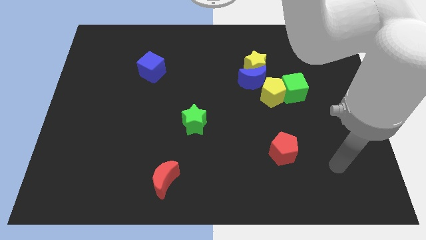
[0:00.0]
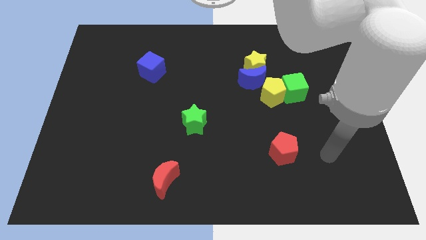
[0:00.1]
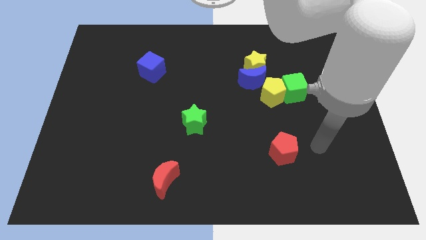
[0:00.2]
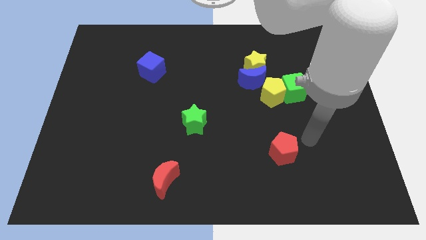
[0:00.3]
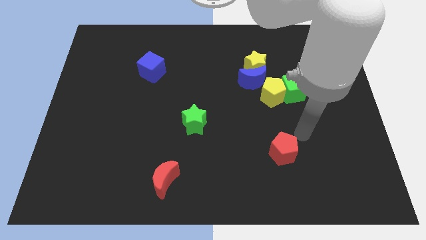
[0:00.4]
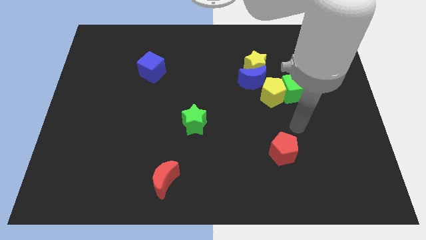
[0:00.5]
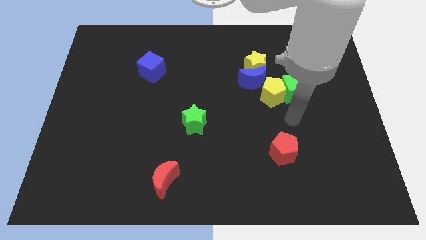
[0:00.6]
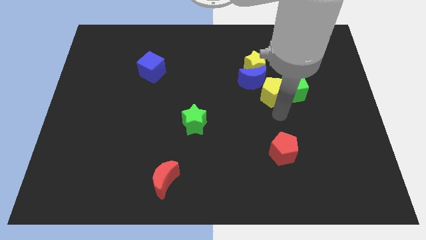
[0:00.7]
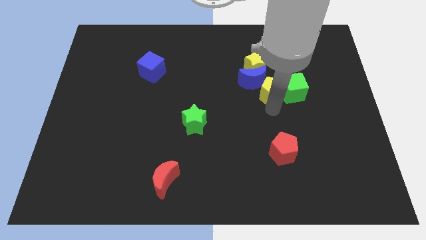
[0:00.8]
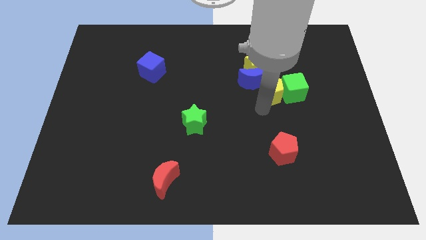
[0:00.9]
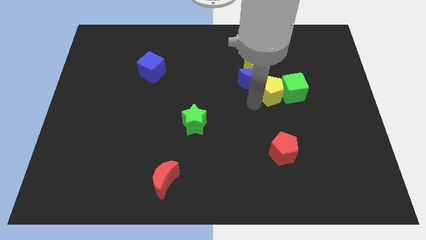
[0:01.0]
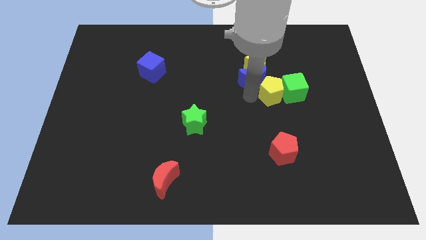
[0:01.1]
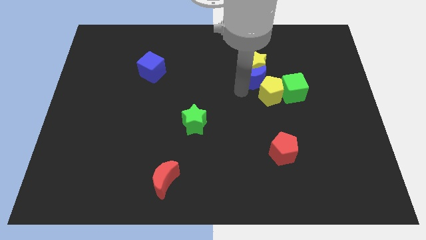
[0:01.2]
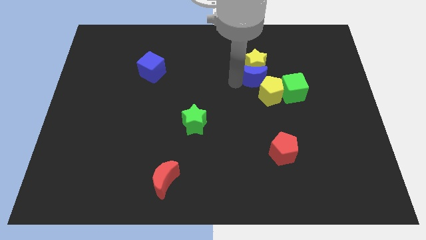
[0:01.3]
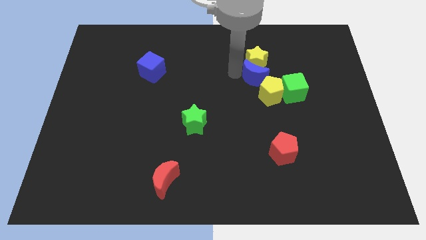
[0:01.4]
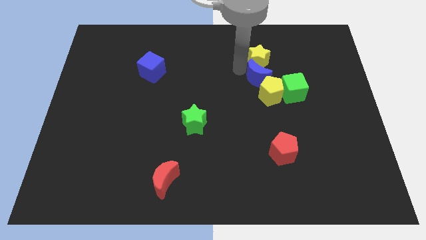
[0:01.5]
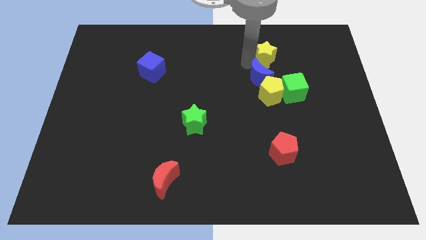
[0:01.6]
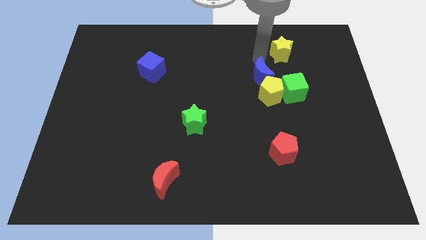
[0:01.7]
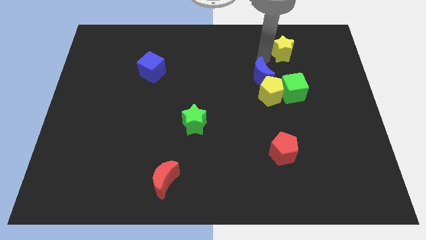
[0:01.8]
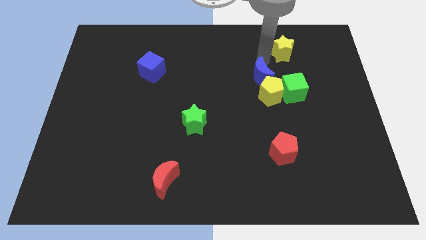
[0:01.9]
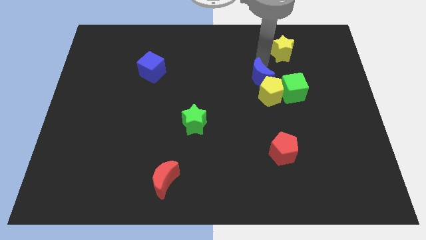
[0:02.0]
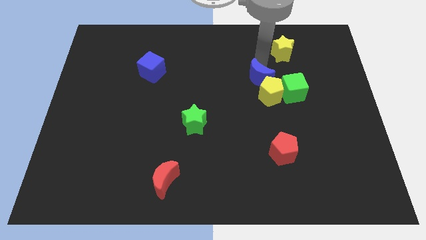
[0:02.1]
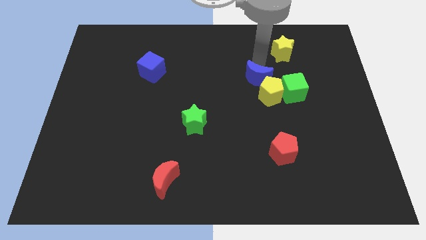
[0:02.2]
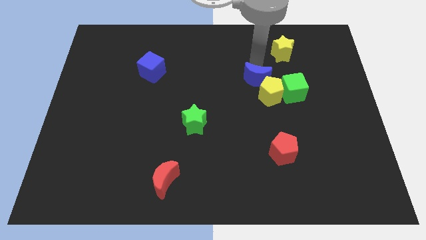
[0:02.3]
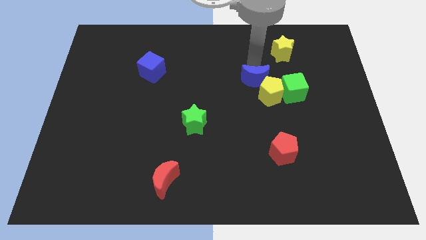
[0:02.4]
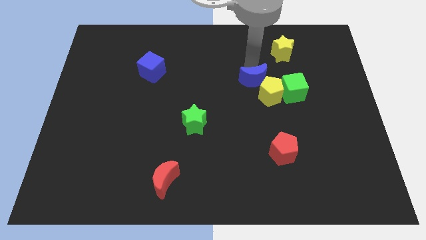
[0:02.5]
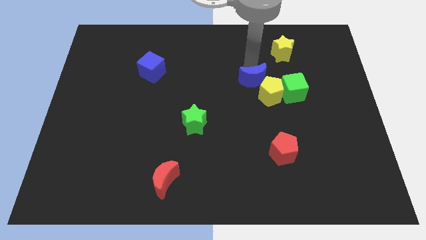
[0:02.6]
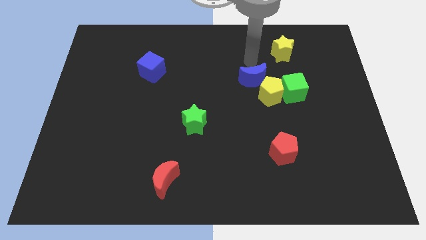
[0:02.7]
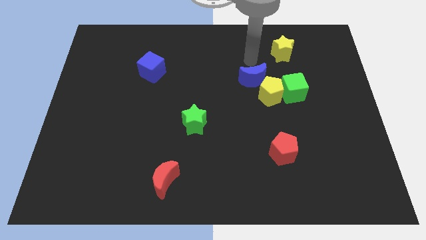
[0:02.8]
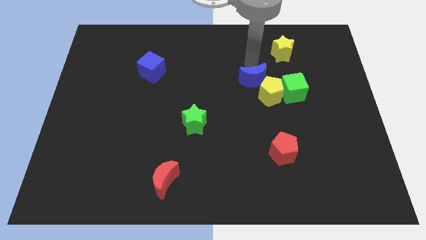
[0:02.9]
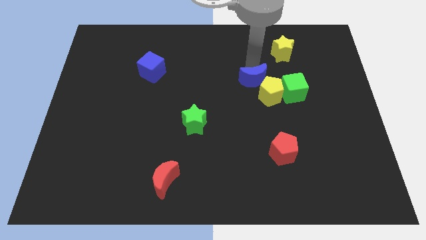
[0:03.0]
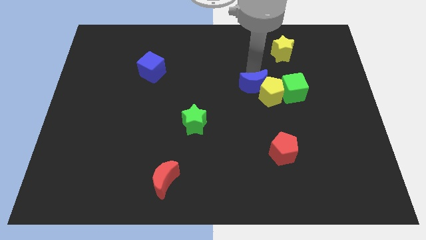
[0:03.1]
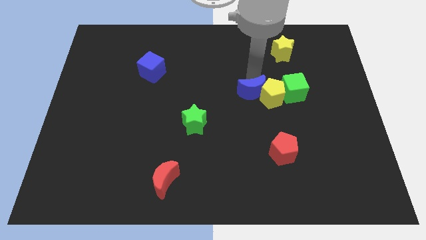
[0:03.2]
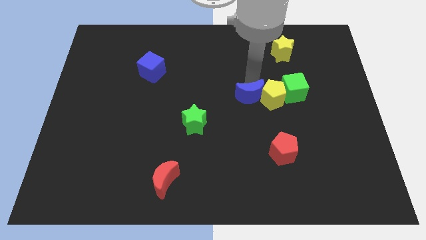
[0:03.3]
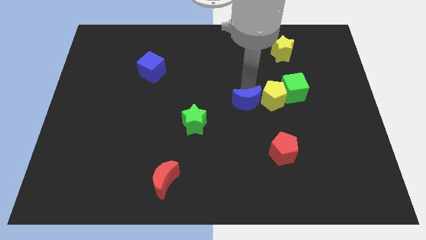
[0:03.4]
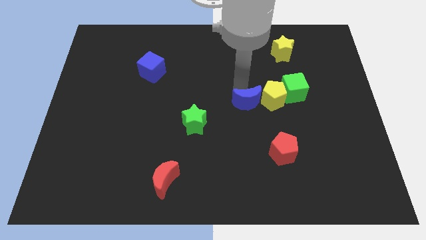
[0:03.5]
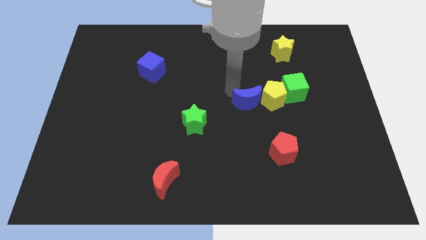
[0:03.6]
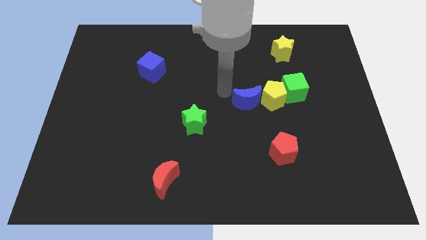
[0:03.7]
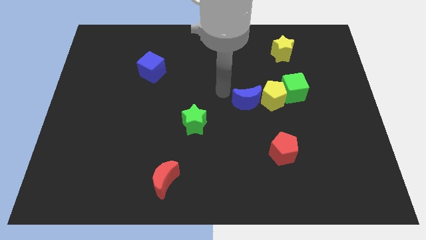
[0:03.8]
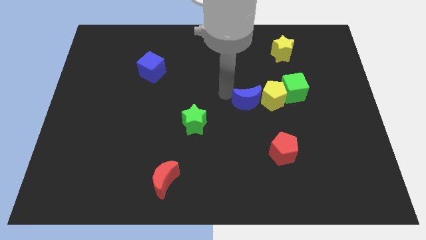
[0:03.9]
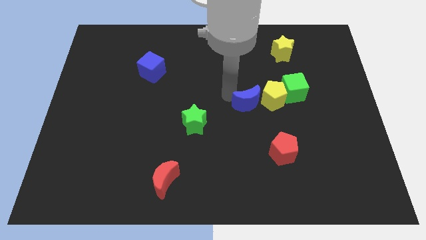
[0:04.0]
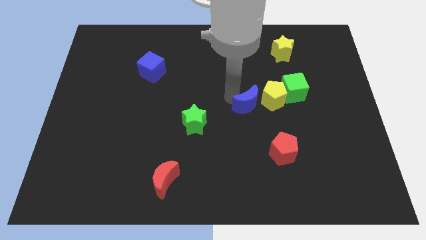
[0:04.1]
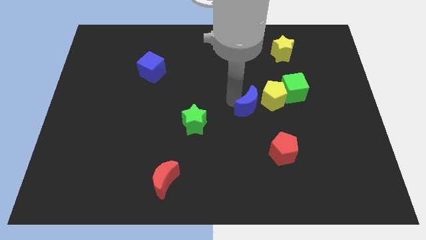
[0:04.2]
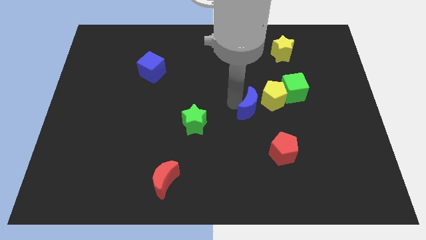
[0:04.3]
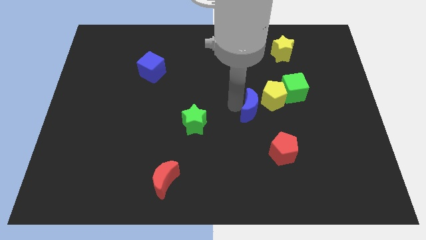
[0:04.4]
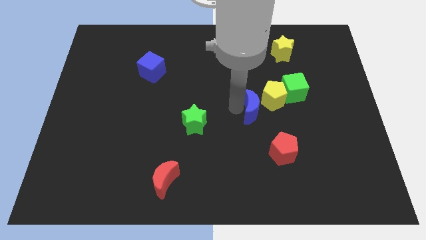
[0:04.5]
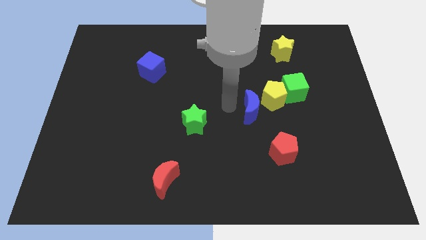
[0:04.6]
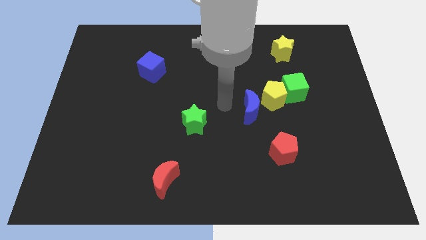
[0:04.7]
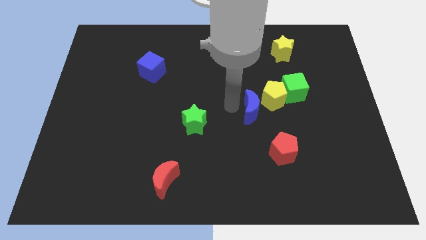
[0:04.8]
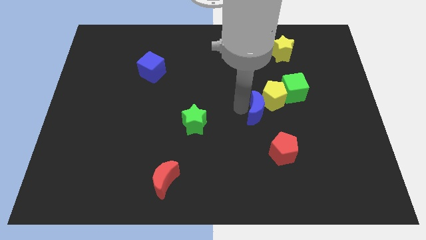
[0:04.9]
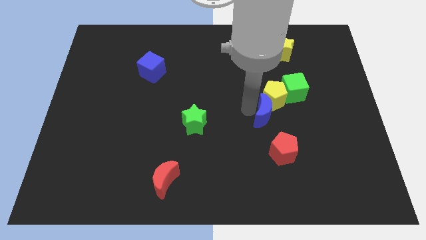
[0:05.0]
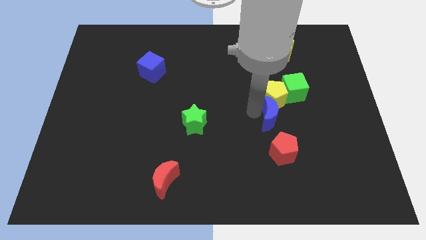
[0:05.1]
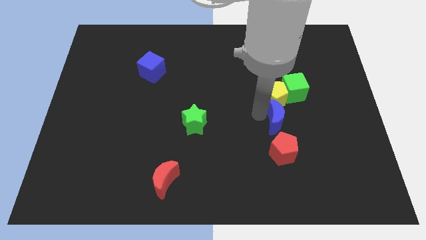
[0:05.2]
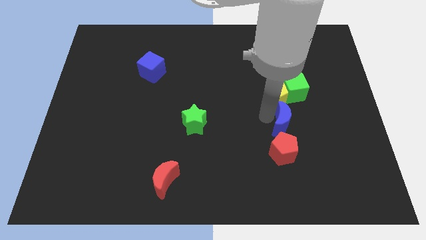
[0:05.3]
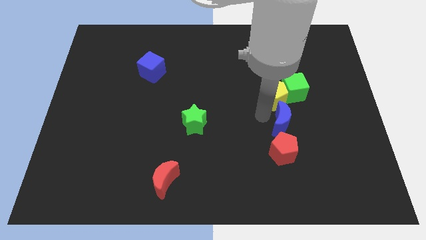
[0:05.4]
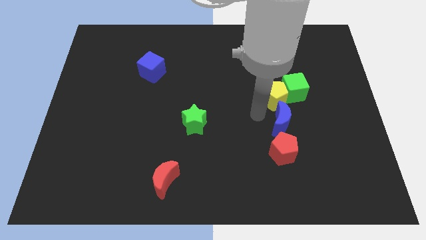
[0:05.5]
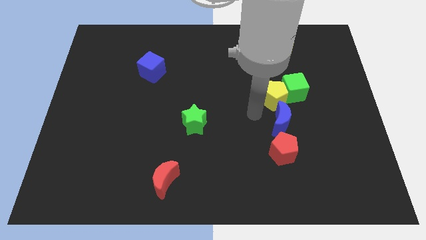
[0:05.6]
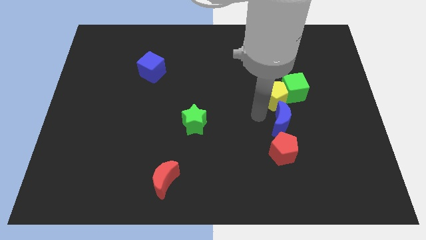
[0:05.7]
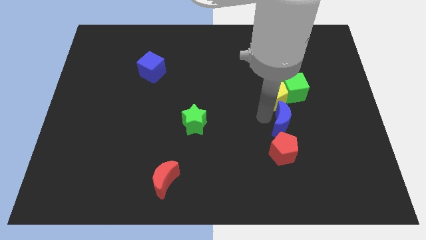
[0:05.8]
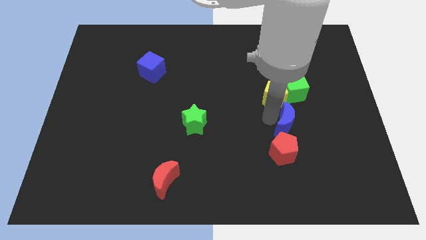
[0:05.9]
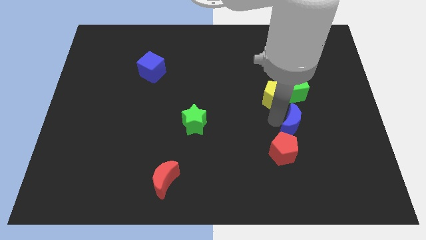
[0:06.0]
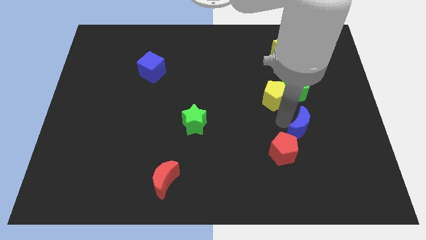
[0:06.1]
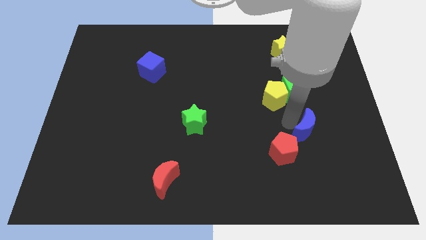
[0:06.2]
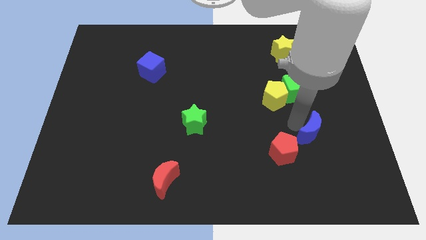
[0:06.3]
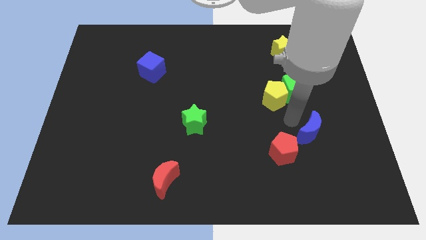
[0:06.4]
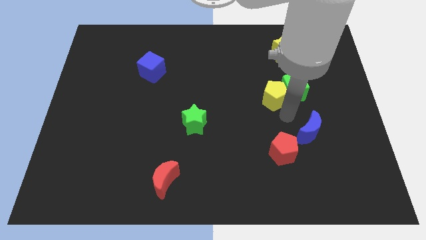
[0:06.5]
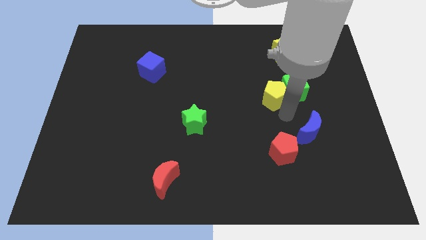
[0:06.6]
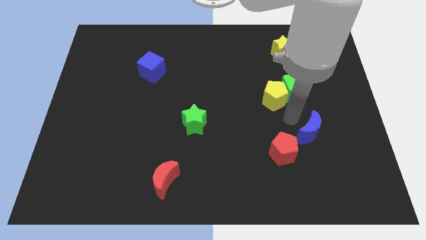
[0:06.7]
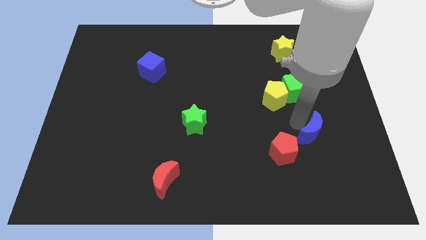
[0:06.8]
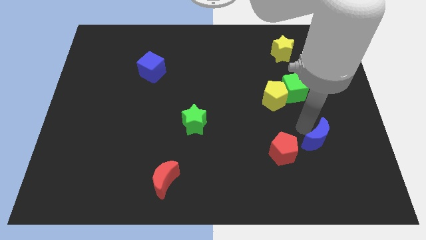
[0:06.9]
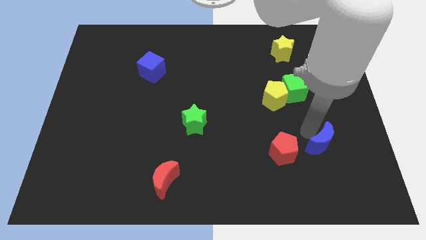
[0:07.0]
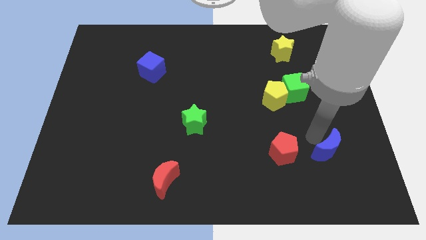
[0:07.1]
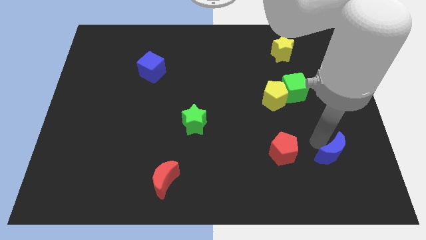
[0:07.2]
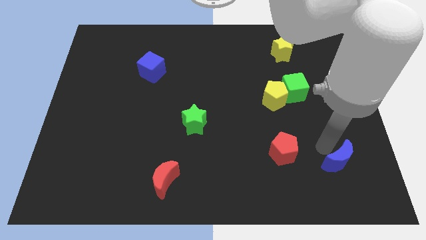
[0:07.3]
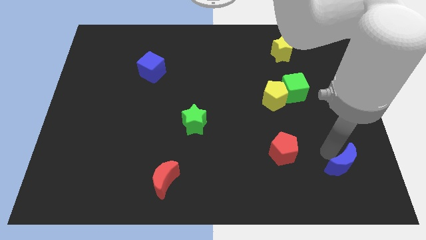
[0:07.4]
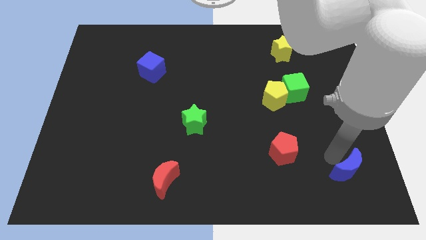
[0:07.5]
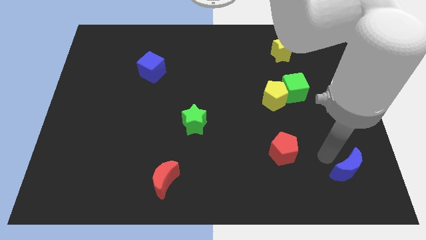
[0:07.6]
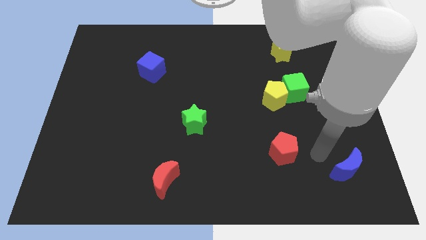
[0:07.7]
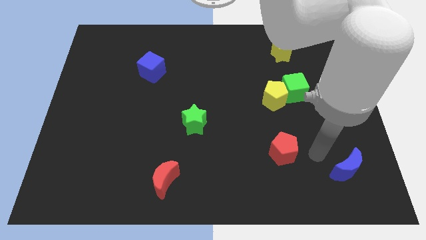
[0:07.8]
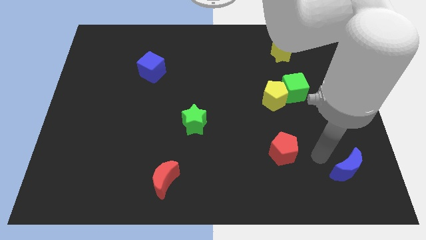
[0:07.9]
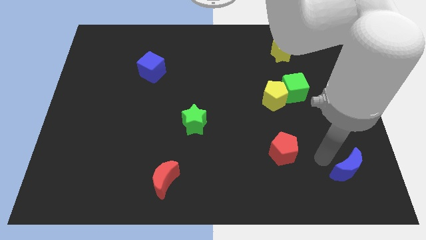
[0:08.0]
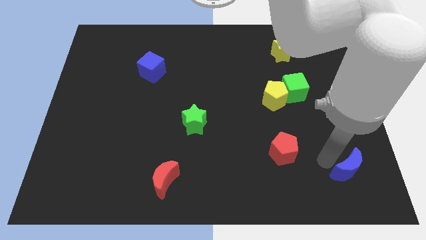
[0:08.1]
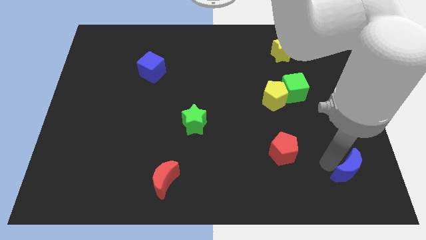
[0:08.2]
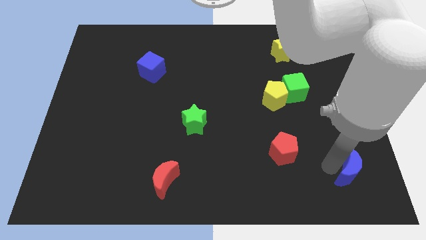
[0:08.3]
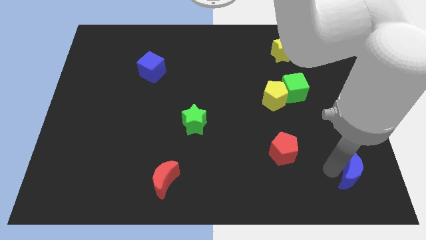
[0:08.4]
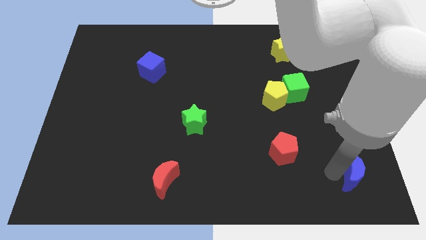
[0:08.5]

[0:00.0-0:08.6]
slide the blue moon to the bottom right corner

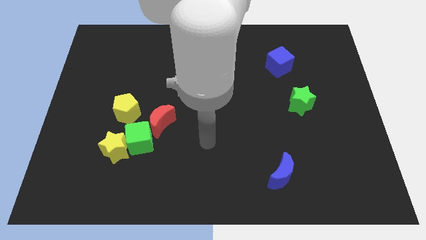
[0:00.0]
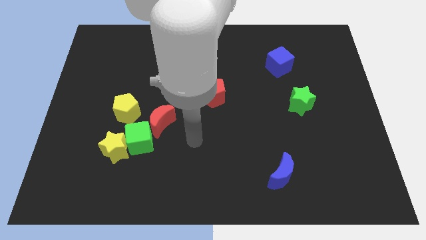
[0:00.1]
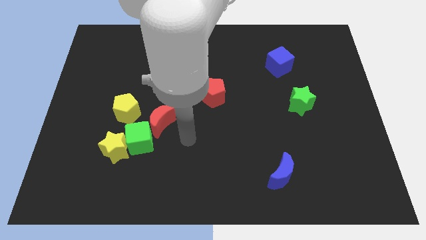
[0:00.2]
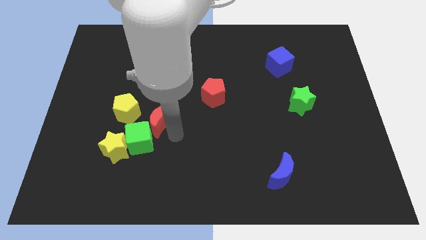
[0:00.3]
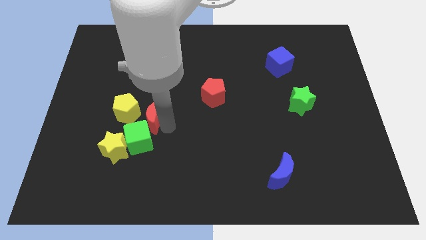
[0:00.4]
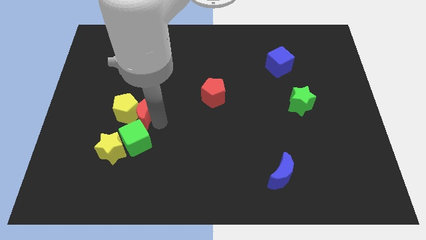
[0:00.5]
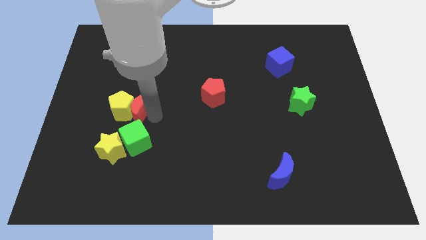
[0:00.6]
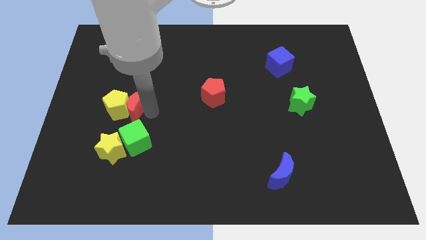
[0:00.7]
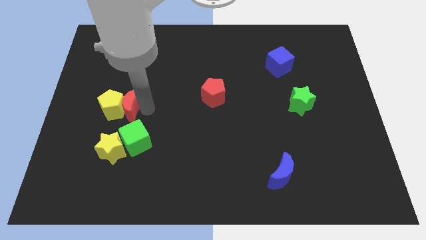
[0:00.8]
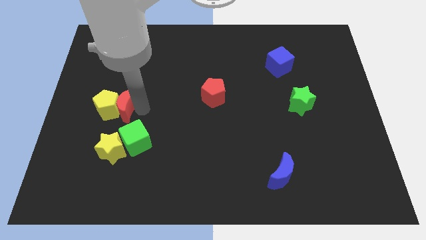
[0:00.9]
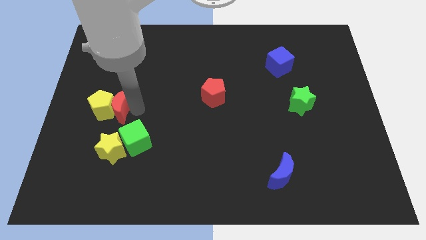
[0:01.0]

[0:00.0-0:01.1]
put the yellow pentagon to the left side of the board
